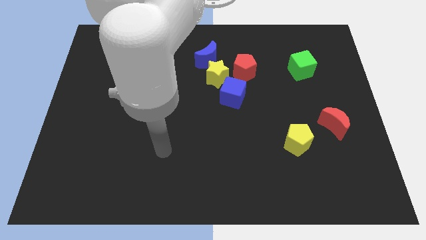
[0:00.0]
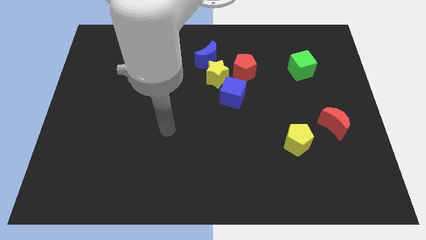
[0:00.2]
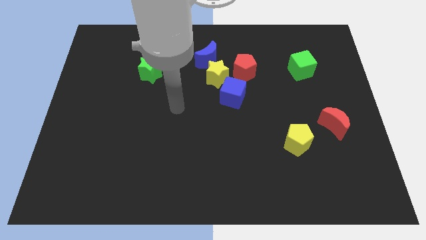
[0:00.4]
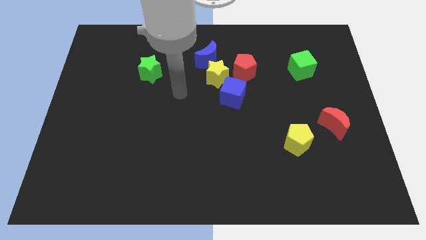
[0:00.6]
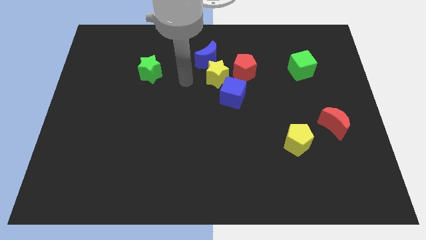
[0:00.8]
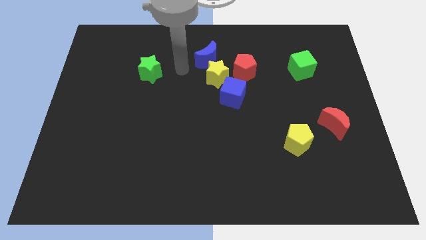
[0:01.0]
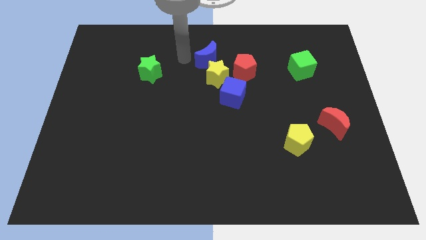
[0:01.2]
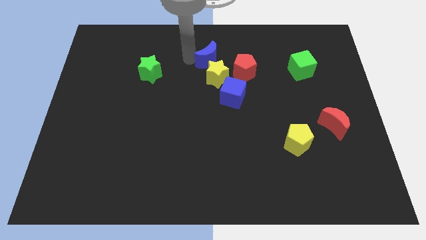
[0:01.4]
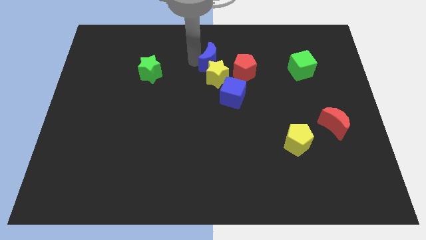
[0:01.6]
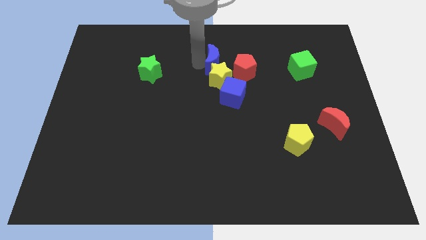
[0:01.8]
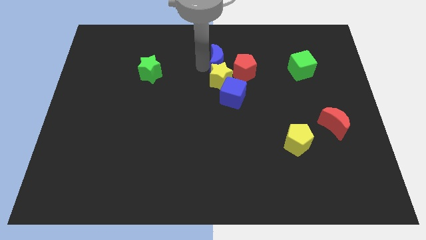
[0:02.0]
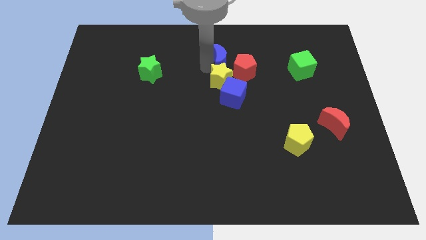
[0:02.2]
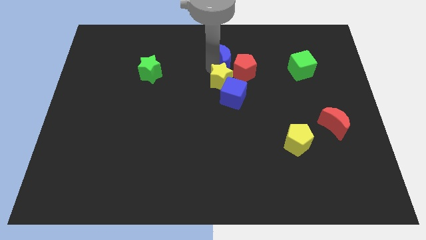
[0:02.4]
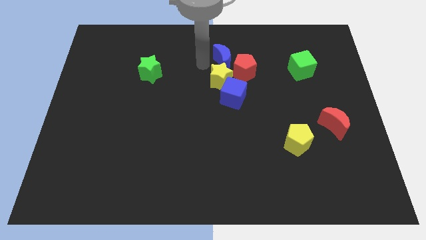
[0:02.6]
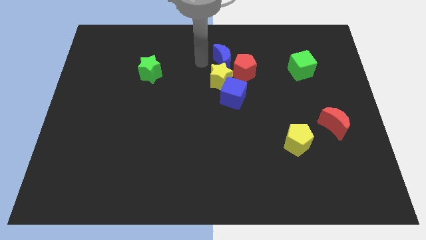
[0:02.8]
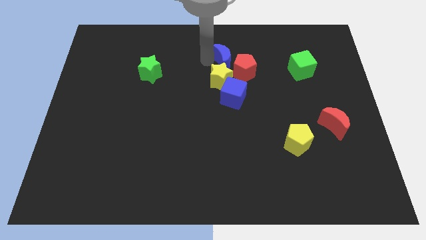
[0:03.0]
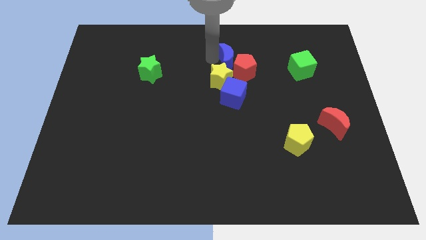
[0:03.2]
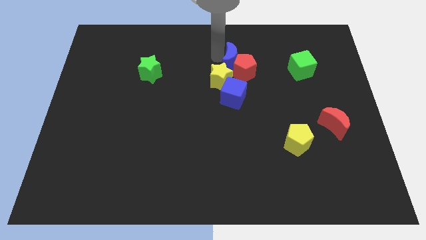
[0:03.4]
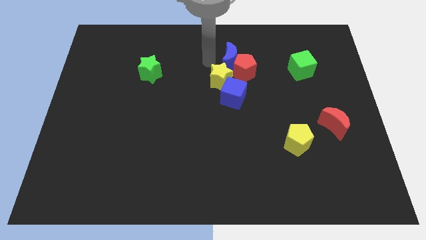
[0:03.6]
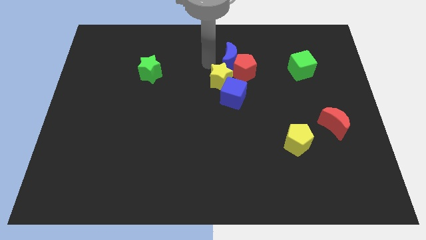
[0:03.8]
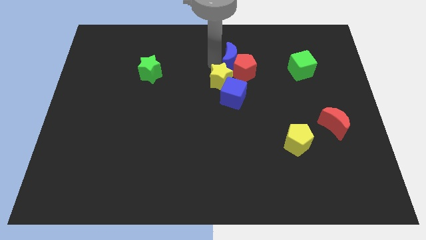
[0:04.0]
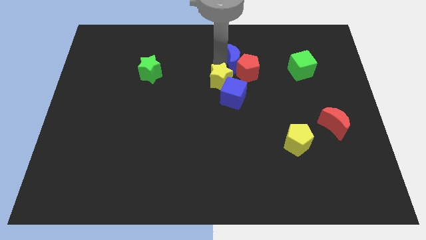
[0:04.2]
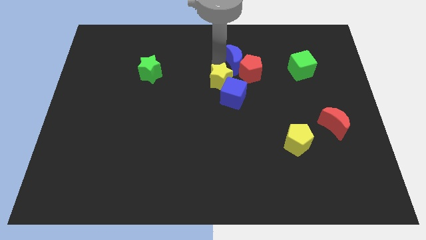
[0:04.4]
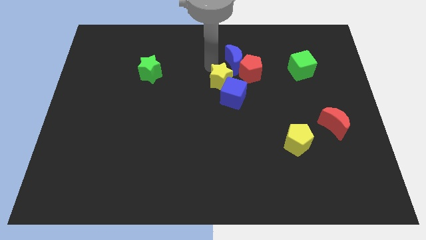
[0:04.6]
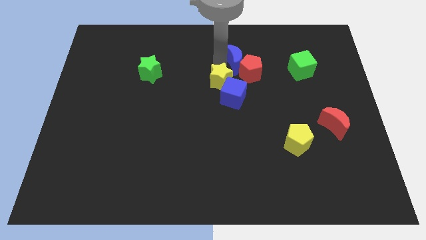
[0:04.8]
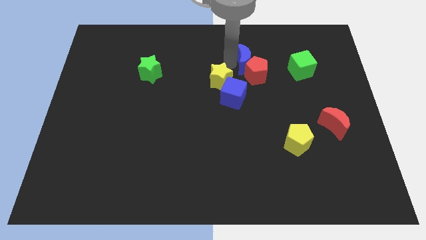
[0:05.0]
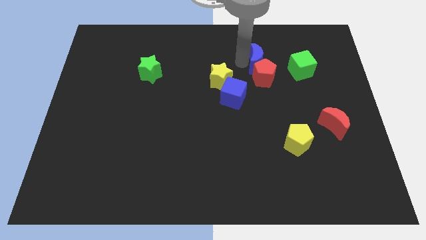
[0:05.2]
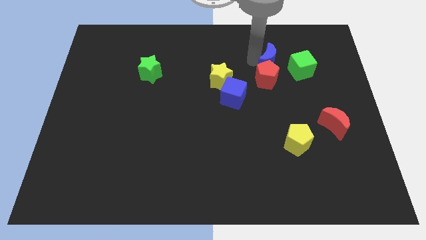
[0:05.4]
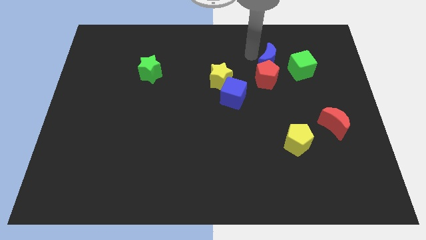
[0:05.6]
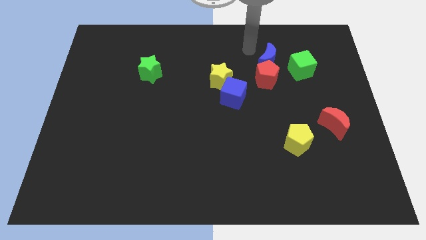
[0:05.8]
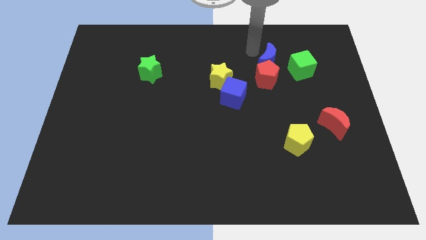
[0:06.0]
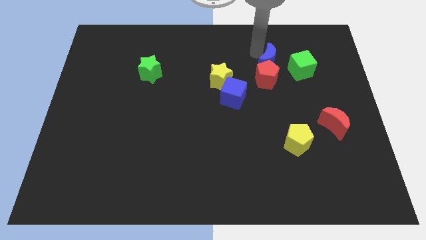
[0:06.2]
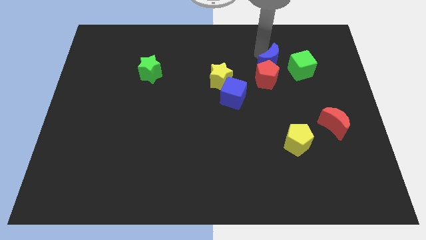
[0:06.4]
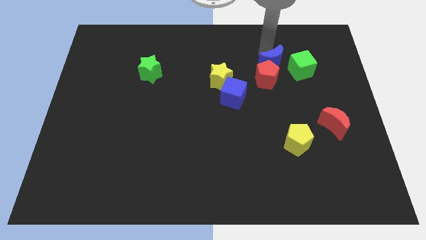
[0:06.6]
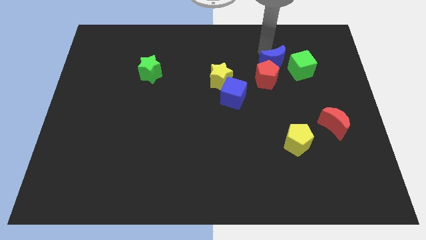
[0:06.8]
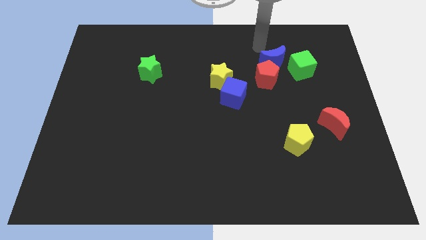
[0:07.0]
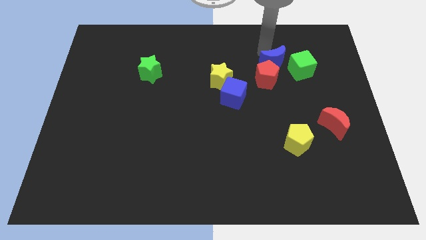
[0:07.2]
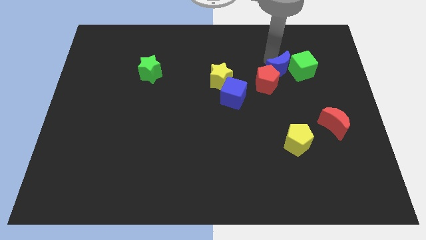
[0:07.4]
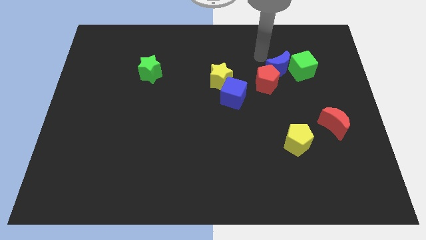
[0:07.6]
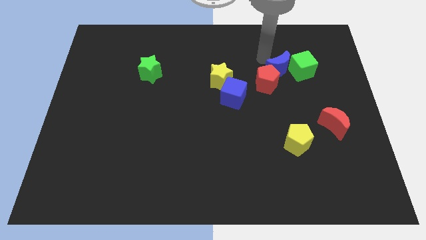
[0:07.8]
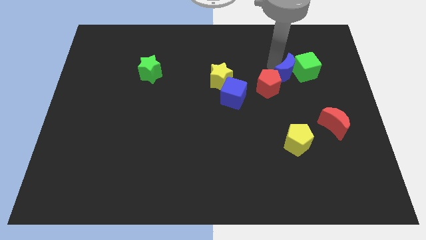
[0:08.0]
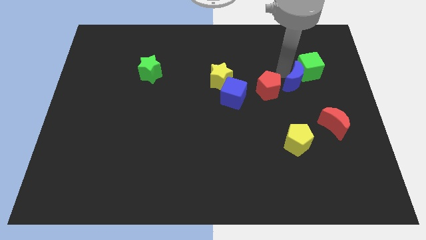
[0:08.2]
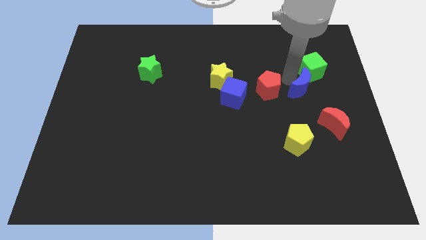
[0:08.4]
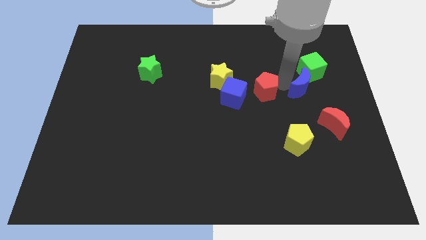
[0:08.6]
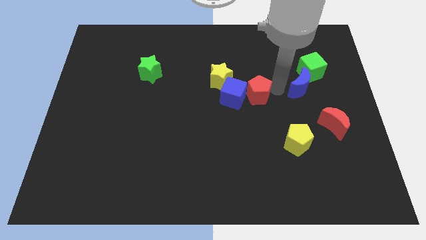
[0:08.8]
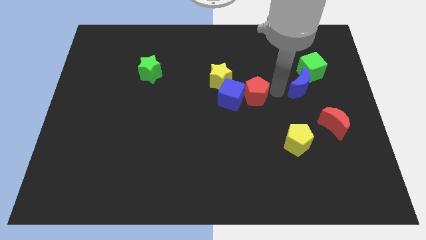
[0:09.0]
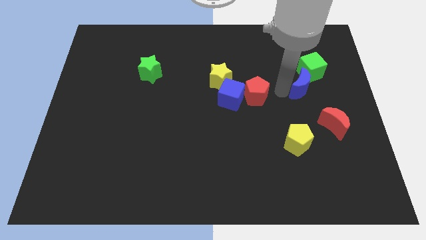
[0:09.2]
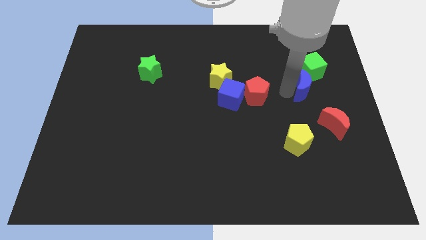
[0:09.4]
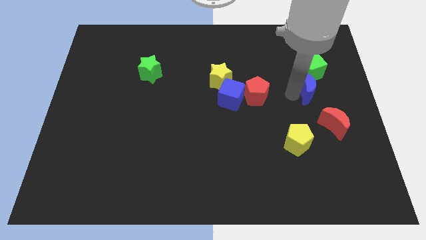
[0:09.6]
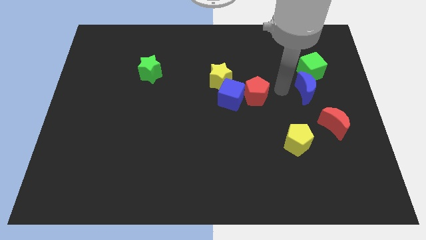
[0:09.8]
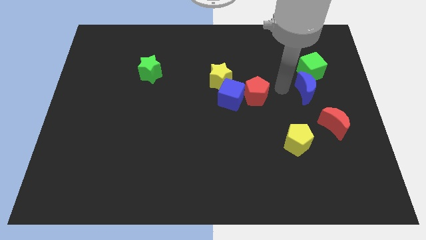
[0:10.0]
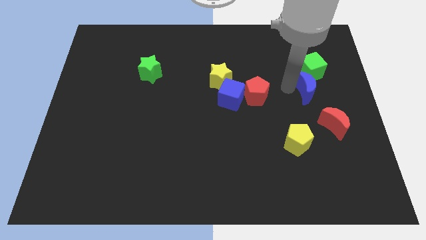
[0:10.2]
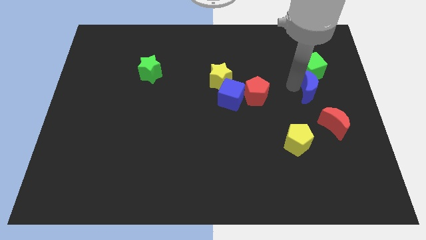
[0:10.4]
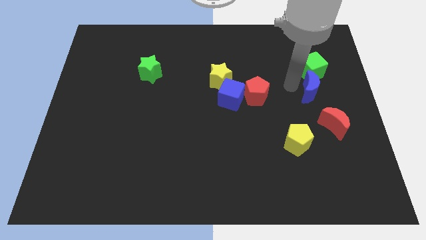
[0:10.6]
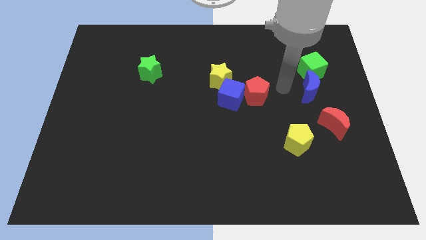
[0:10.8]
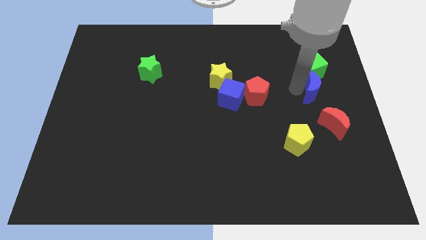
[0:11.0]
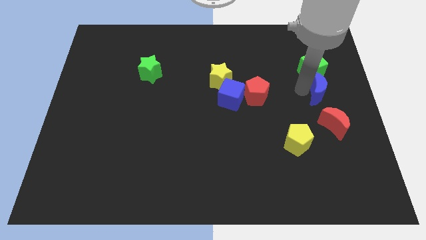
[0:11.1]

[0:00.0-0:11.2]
slide the blue moon to the right side

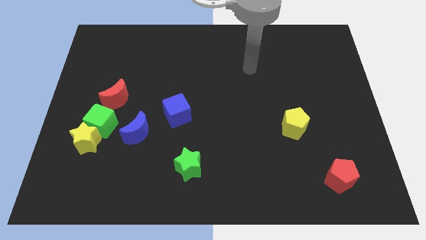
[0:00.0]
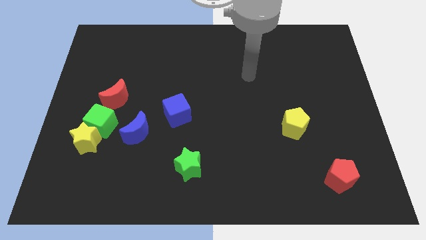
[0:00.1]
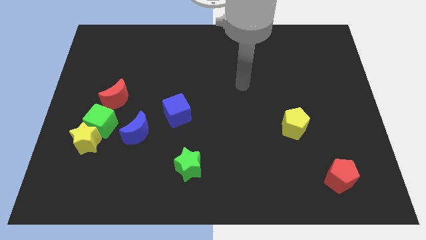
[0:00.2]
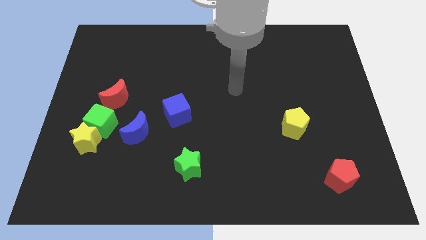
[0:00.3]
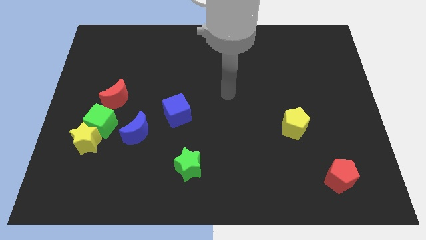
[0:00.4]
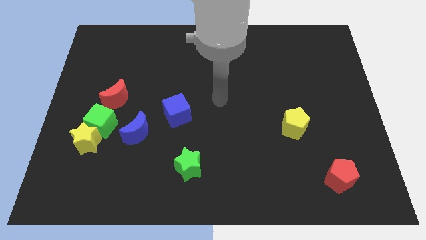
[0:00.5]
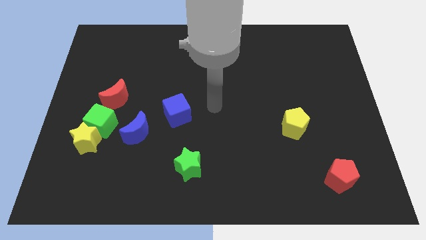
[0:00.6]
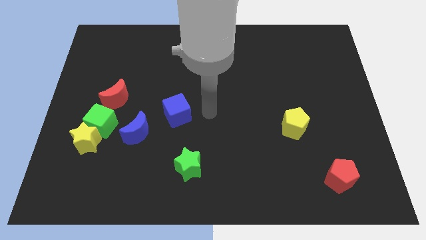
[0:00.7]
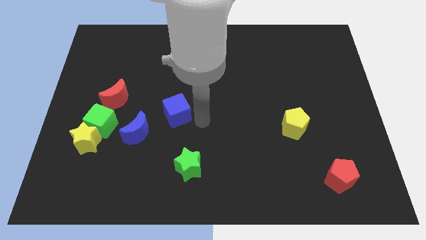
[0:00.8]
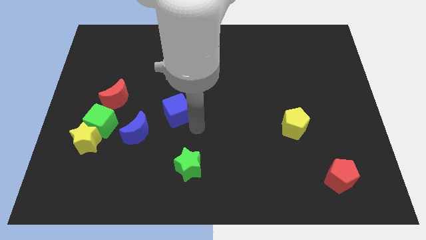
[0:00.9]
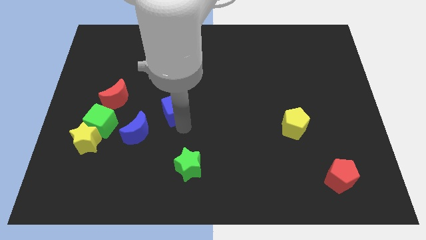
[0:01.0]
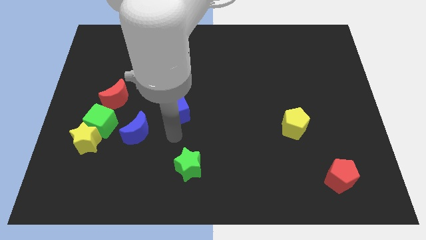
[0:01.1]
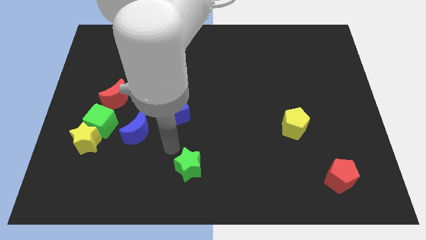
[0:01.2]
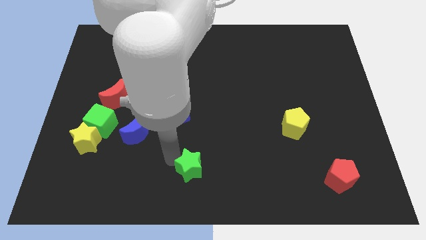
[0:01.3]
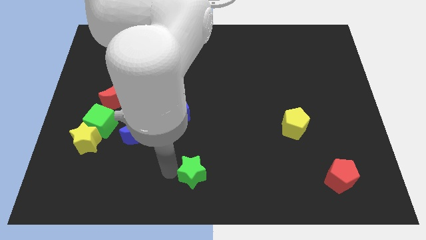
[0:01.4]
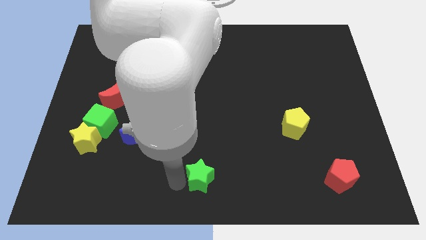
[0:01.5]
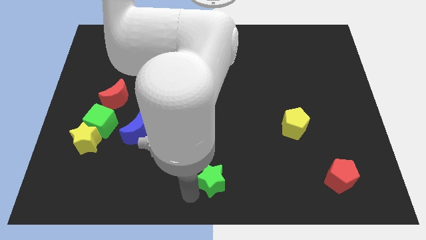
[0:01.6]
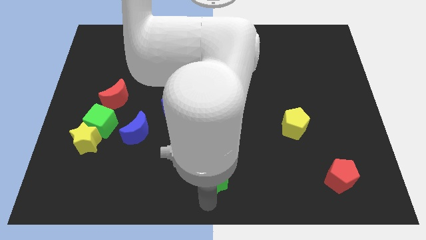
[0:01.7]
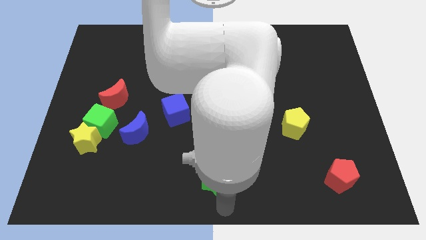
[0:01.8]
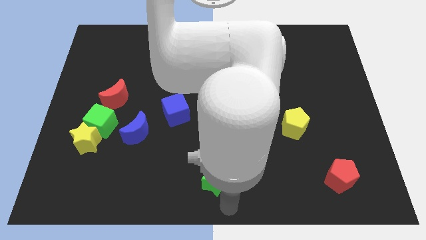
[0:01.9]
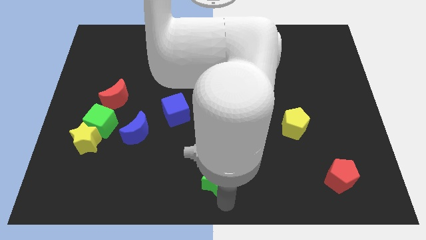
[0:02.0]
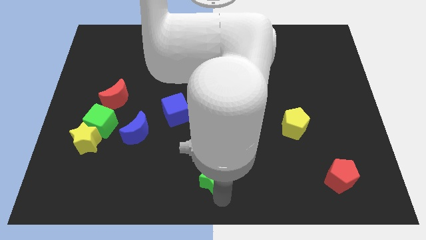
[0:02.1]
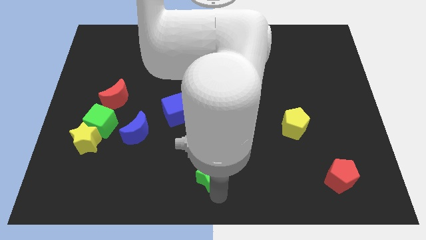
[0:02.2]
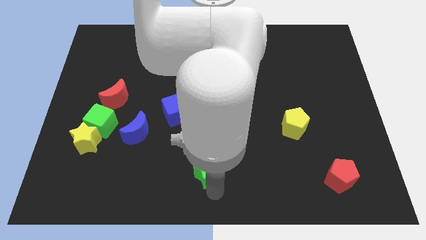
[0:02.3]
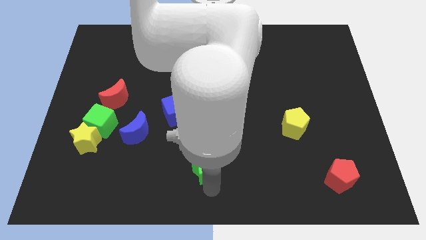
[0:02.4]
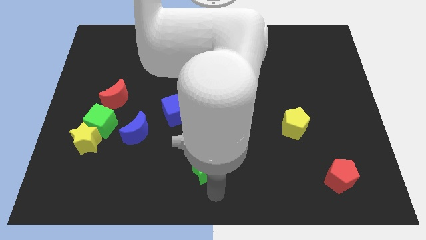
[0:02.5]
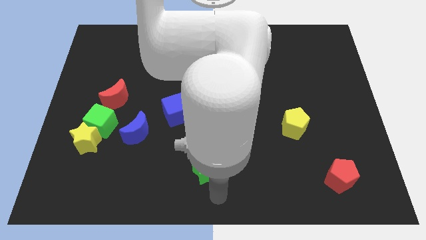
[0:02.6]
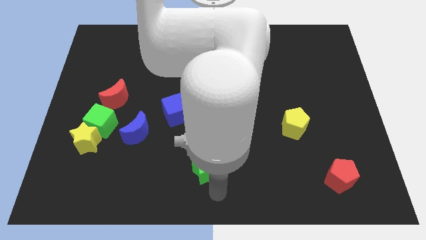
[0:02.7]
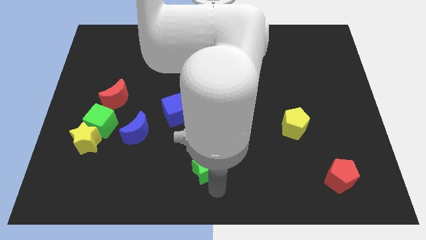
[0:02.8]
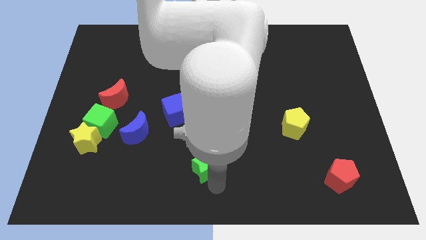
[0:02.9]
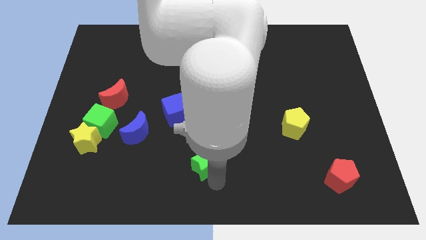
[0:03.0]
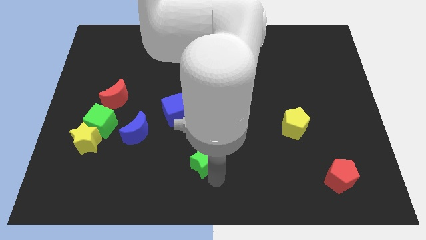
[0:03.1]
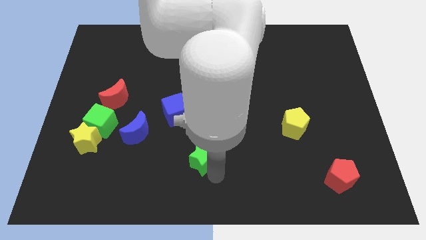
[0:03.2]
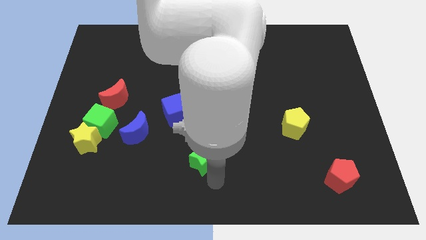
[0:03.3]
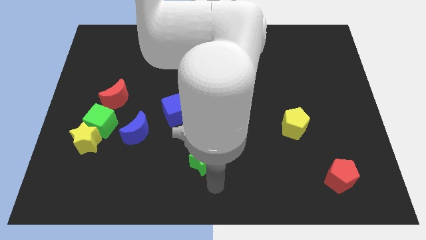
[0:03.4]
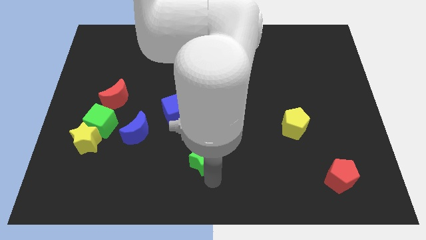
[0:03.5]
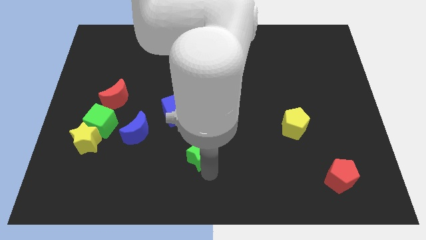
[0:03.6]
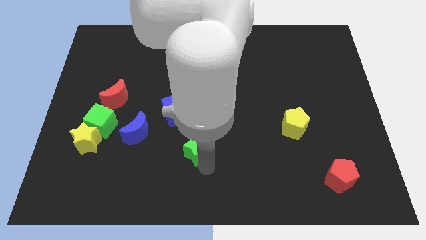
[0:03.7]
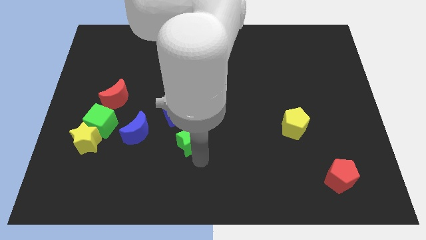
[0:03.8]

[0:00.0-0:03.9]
put the green star to the center
